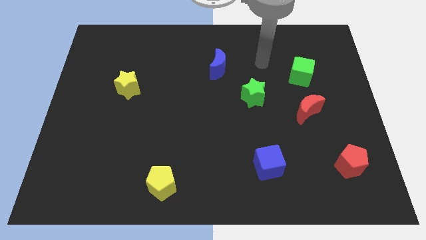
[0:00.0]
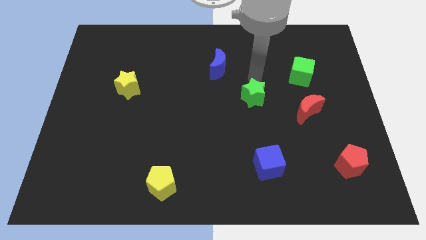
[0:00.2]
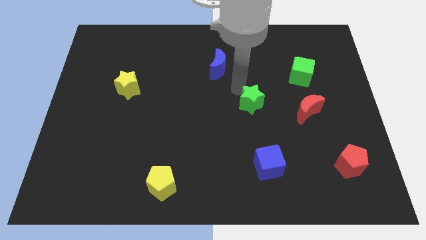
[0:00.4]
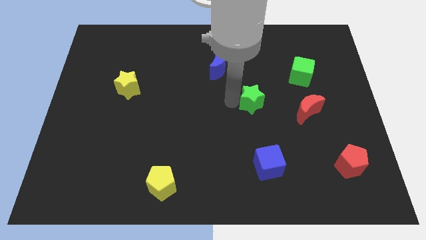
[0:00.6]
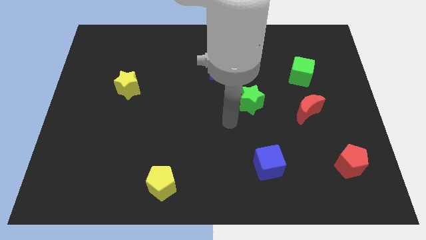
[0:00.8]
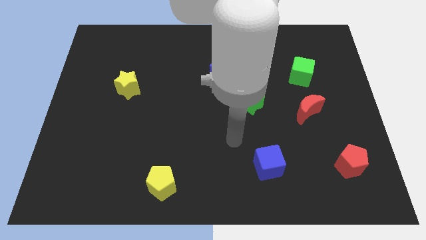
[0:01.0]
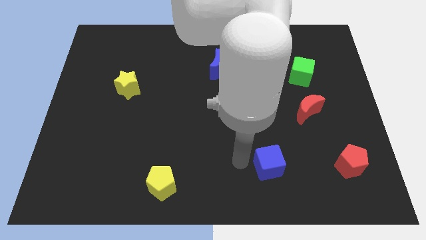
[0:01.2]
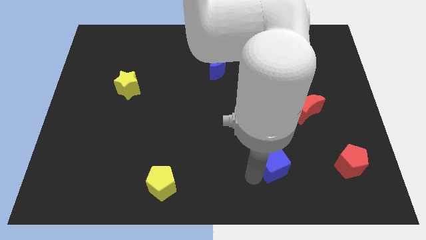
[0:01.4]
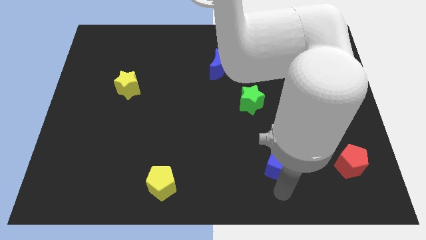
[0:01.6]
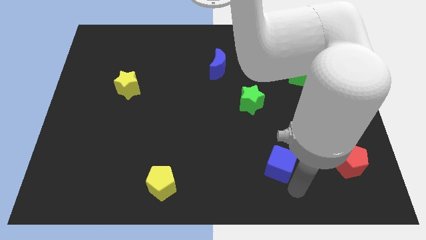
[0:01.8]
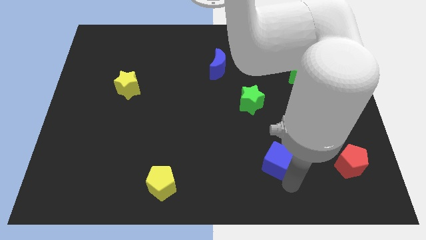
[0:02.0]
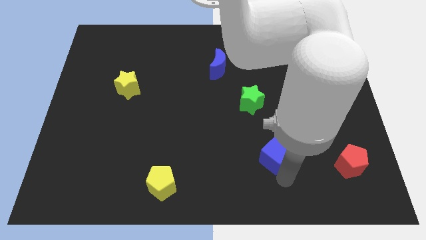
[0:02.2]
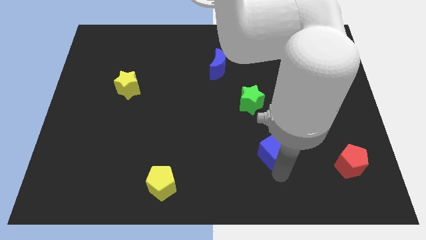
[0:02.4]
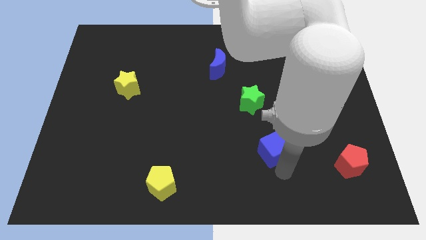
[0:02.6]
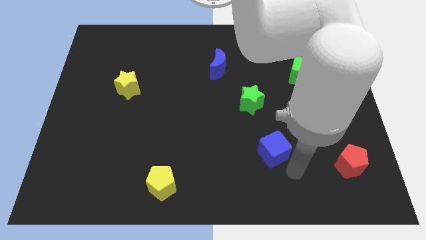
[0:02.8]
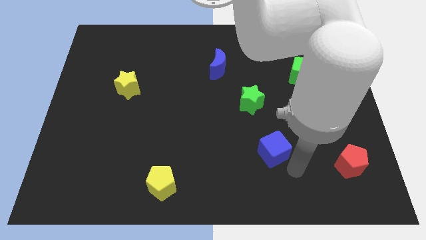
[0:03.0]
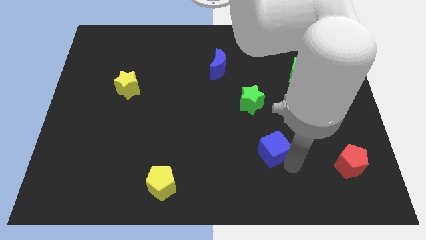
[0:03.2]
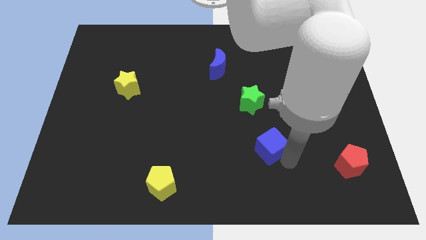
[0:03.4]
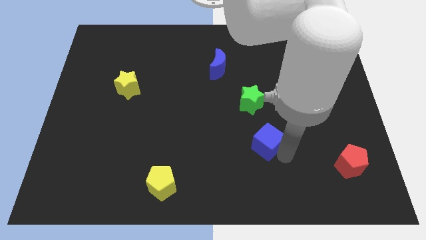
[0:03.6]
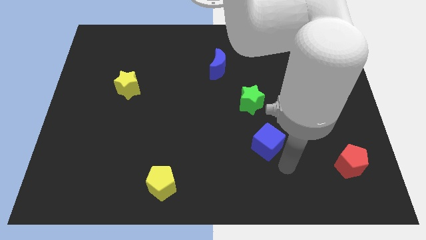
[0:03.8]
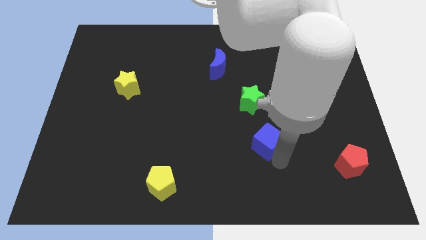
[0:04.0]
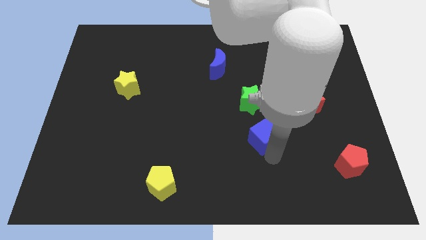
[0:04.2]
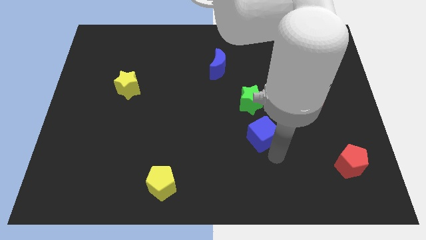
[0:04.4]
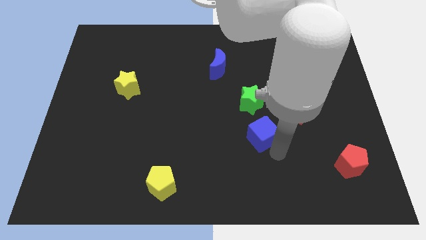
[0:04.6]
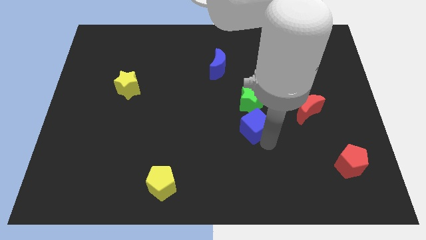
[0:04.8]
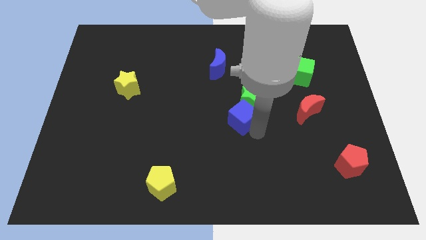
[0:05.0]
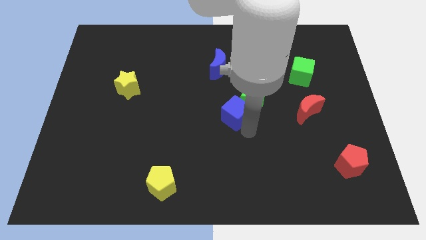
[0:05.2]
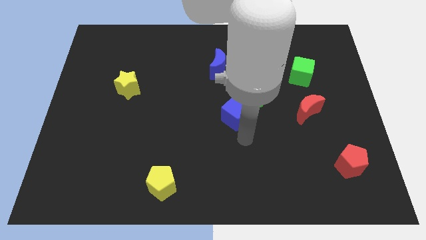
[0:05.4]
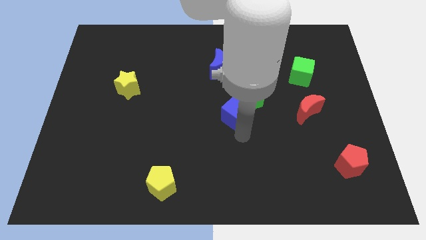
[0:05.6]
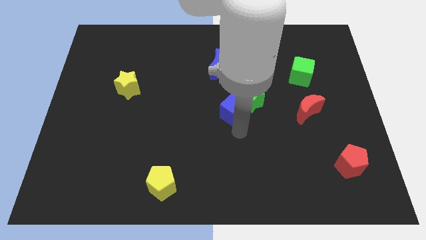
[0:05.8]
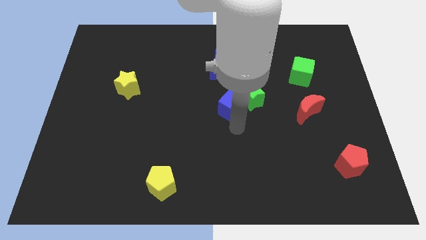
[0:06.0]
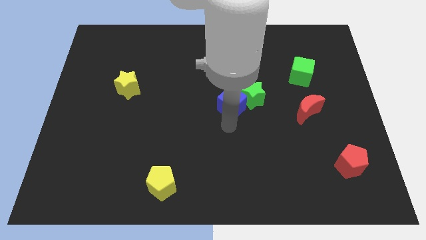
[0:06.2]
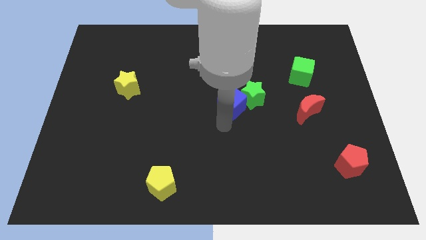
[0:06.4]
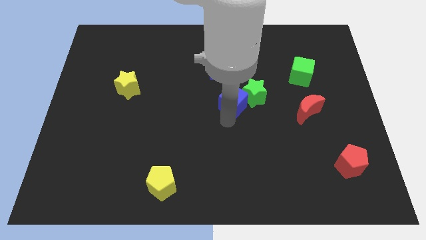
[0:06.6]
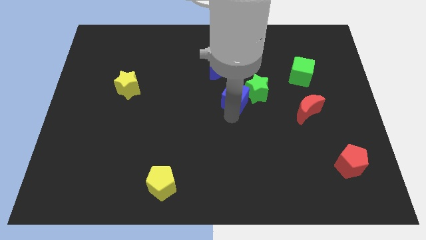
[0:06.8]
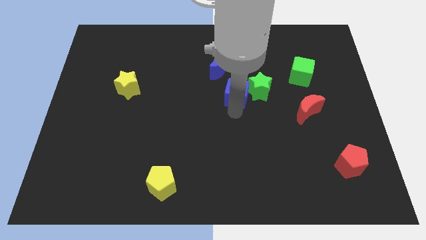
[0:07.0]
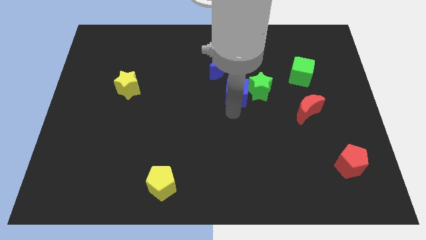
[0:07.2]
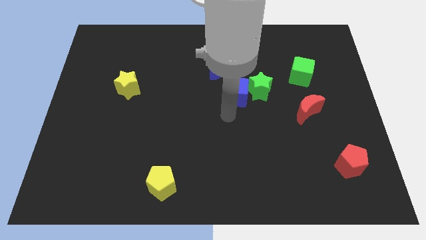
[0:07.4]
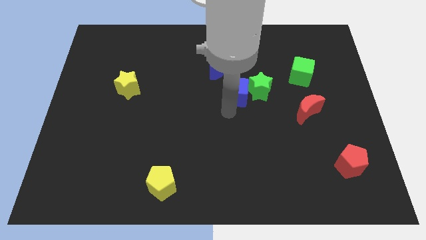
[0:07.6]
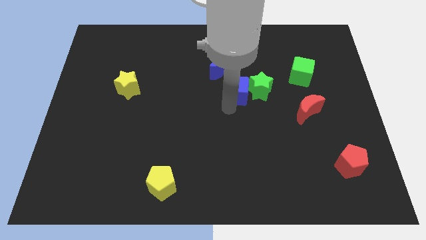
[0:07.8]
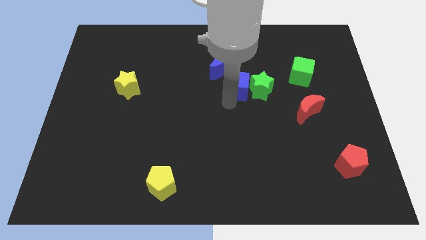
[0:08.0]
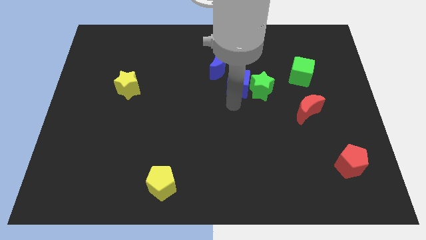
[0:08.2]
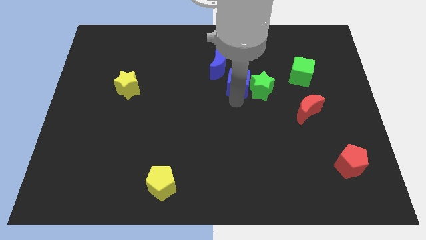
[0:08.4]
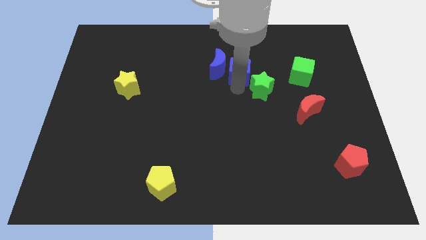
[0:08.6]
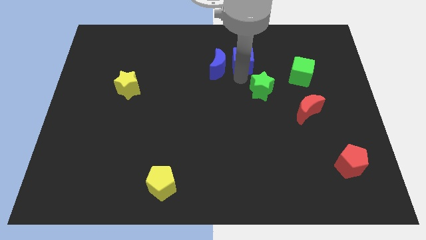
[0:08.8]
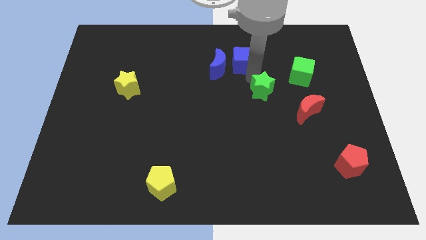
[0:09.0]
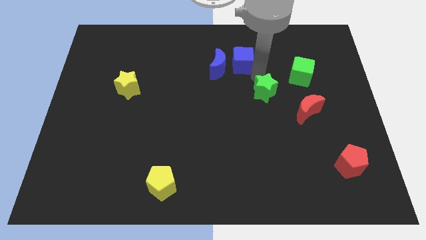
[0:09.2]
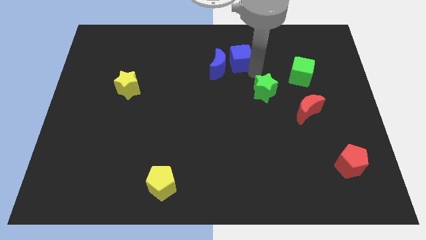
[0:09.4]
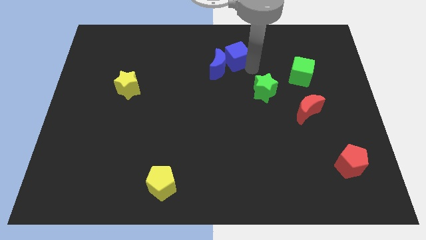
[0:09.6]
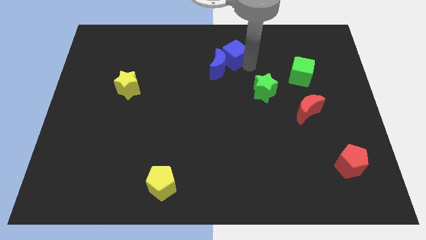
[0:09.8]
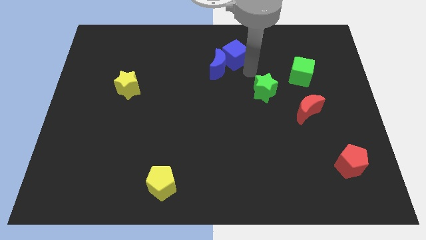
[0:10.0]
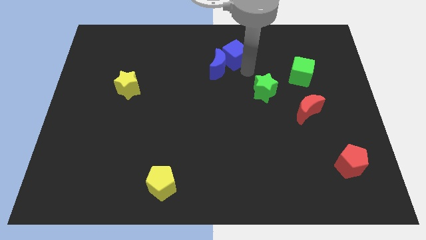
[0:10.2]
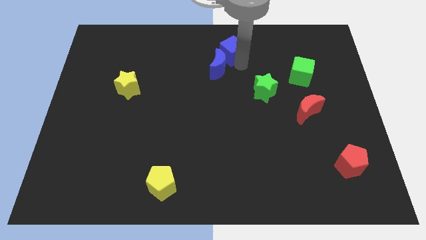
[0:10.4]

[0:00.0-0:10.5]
put the blue cube to the top side

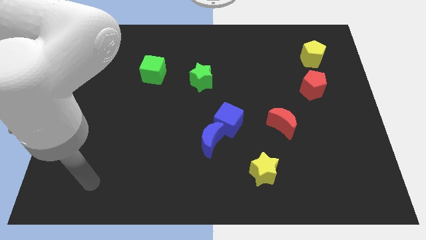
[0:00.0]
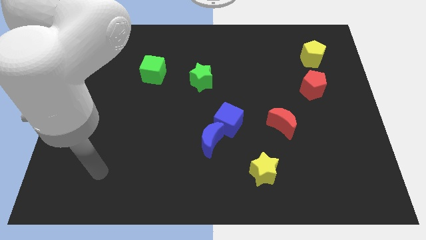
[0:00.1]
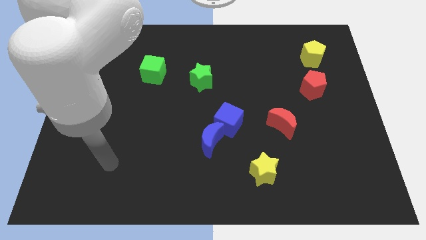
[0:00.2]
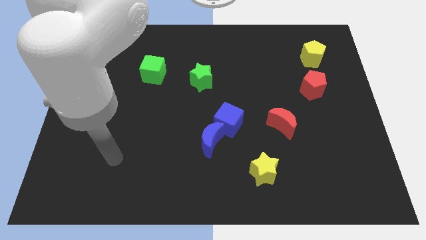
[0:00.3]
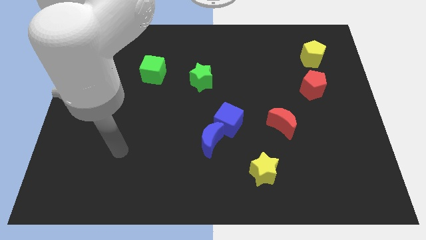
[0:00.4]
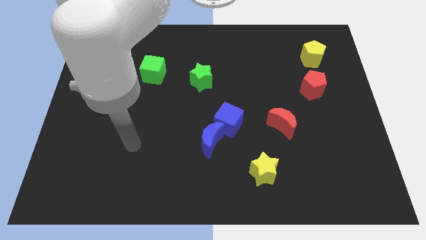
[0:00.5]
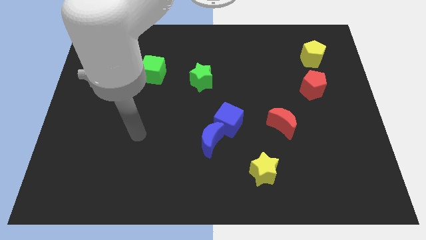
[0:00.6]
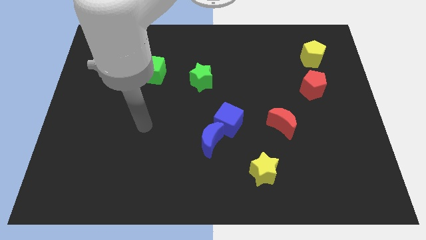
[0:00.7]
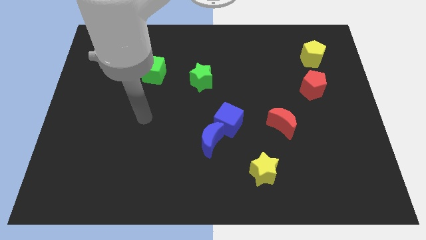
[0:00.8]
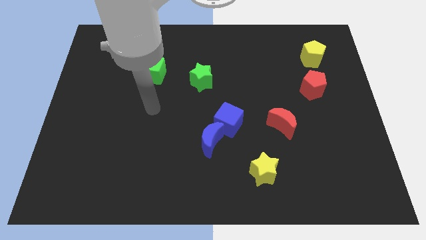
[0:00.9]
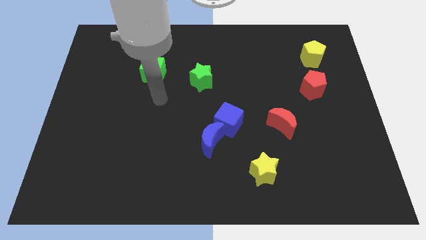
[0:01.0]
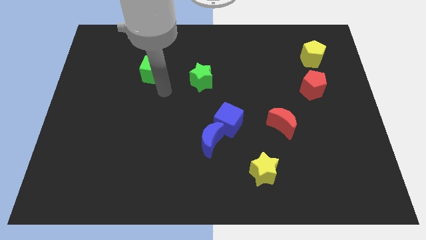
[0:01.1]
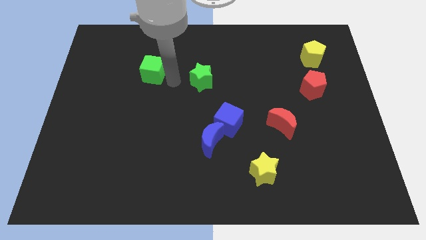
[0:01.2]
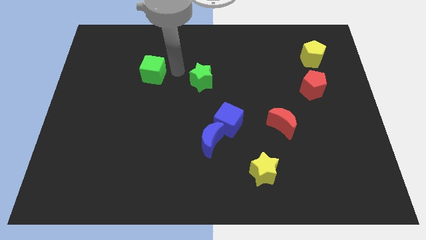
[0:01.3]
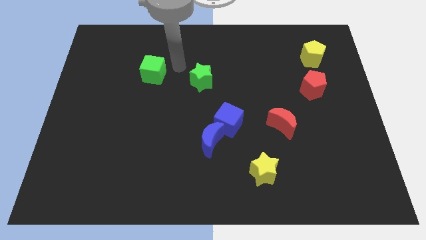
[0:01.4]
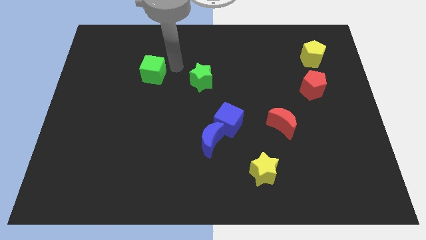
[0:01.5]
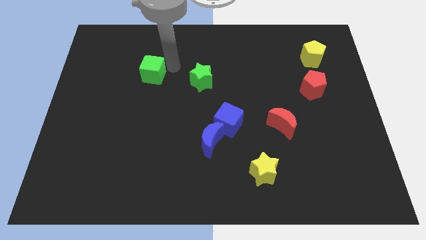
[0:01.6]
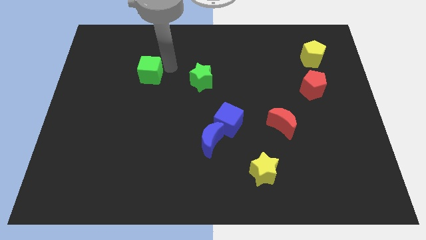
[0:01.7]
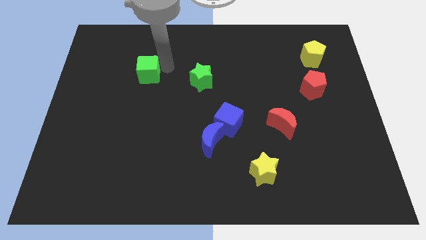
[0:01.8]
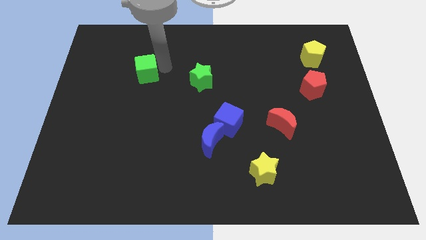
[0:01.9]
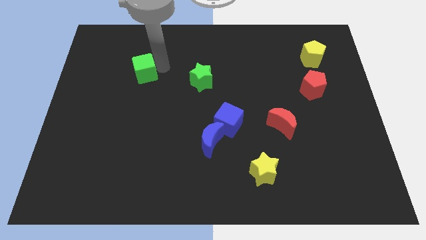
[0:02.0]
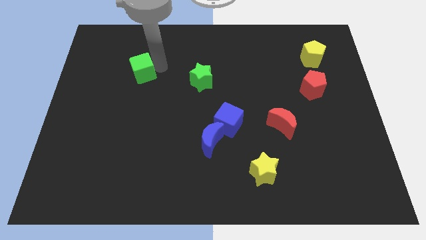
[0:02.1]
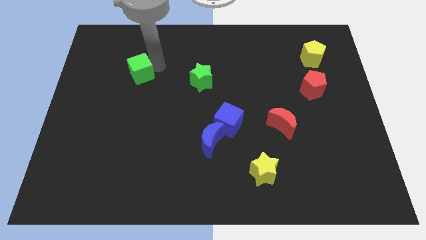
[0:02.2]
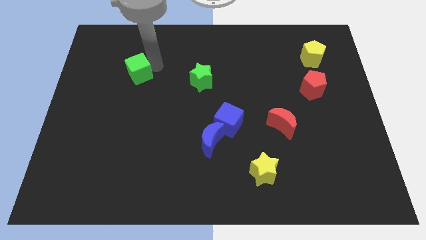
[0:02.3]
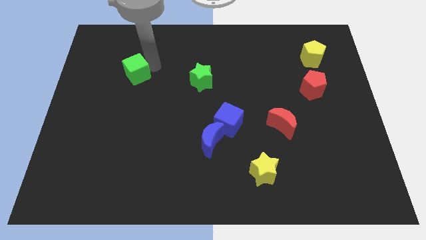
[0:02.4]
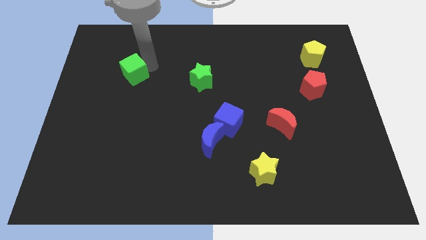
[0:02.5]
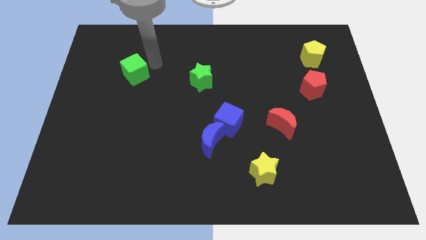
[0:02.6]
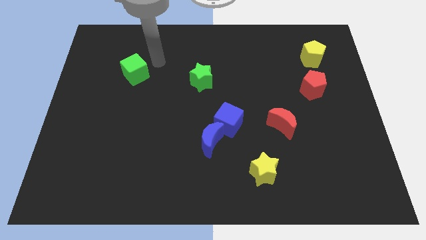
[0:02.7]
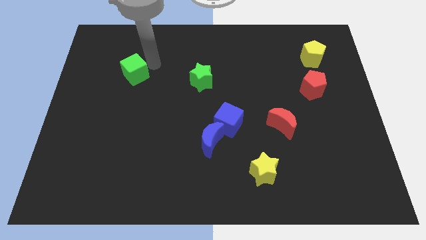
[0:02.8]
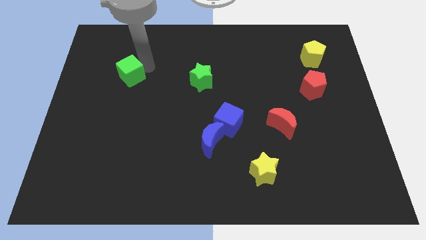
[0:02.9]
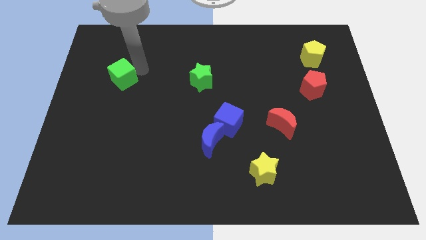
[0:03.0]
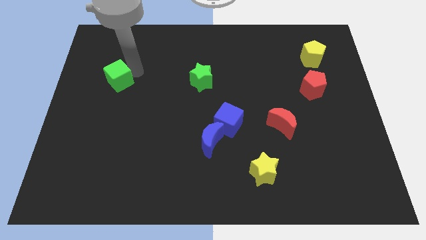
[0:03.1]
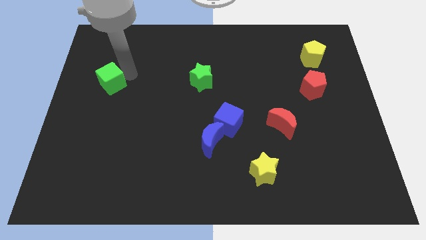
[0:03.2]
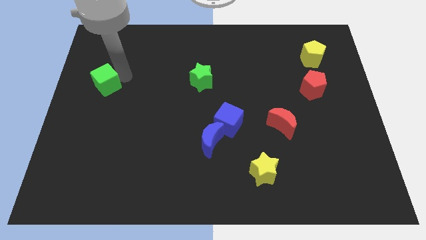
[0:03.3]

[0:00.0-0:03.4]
put the green cube to the center left
